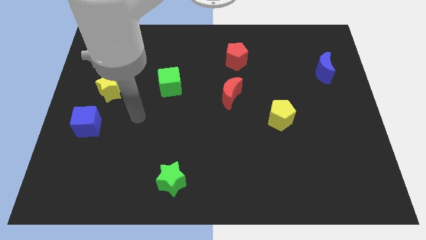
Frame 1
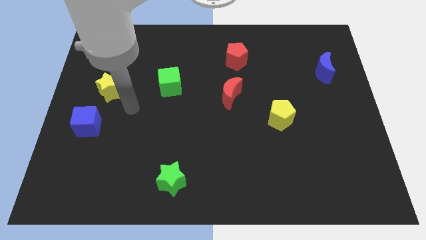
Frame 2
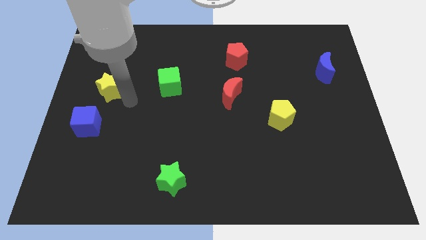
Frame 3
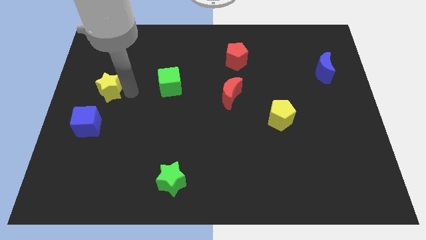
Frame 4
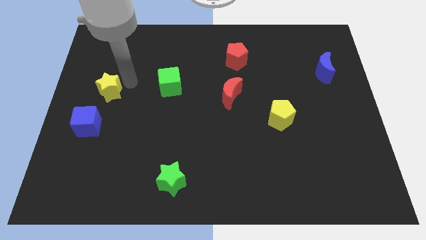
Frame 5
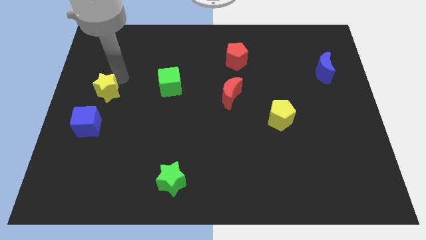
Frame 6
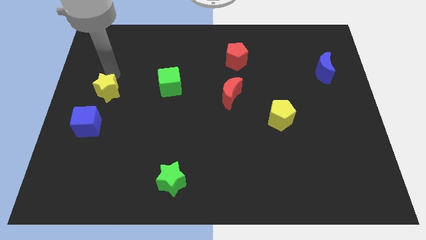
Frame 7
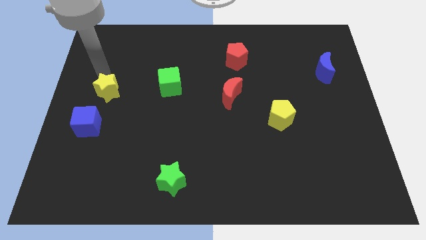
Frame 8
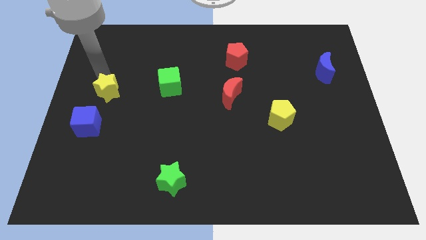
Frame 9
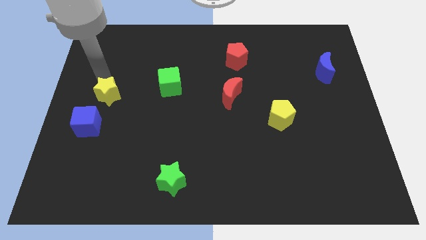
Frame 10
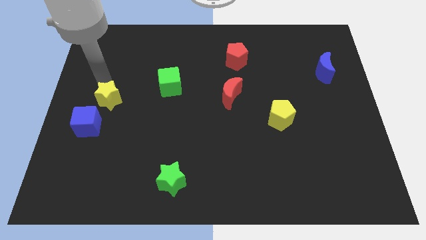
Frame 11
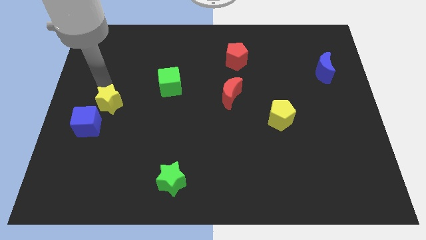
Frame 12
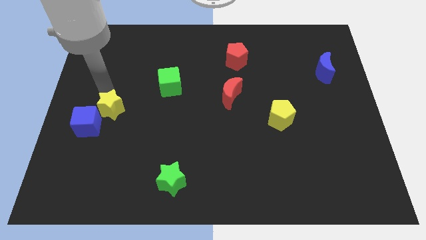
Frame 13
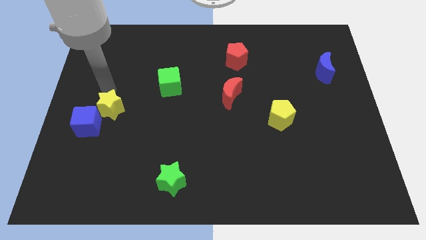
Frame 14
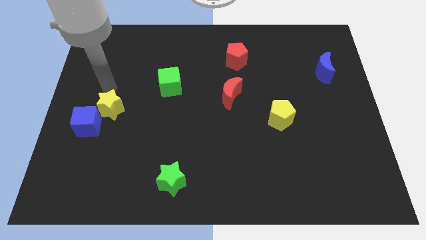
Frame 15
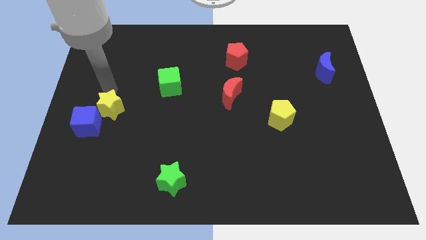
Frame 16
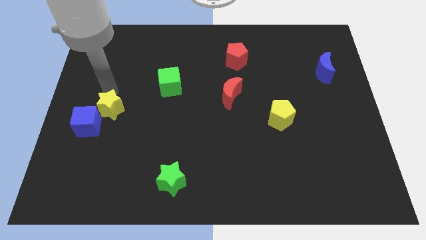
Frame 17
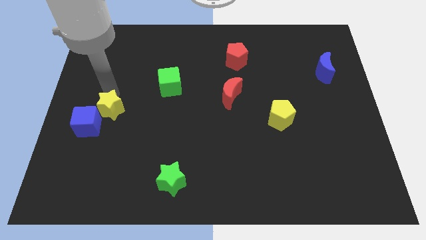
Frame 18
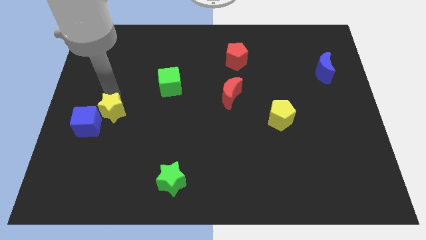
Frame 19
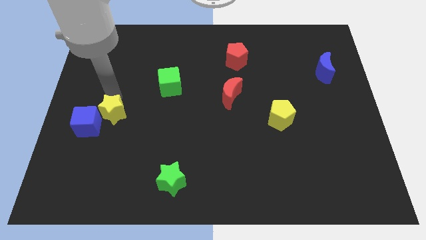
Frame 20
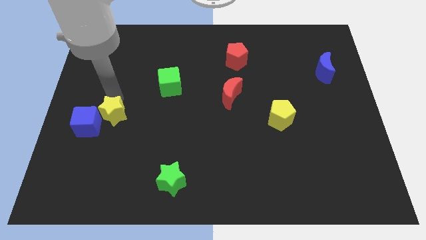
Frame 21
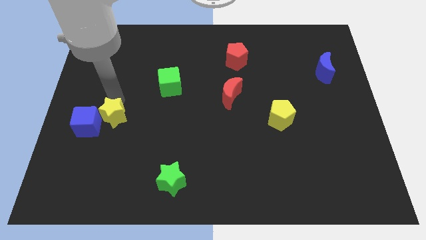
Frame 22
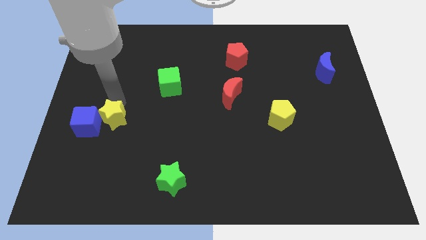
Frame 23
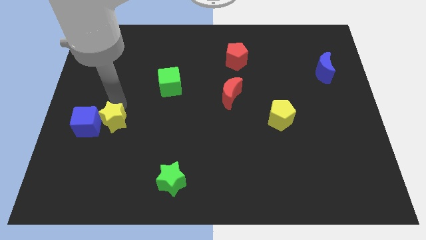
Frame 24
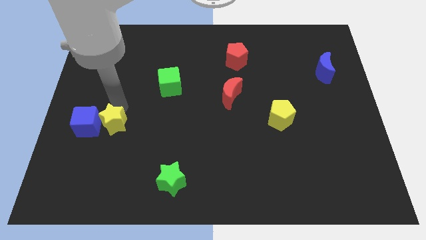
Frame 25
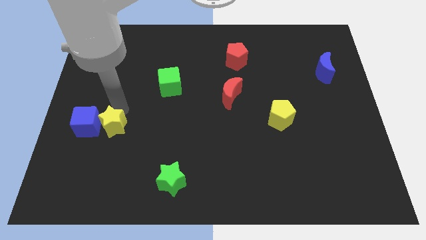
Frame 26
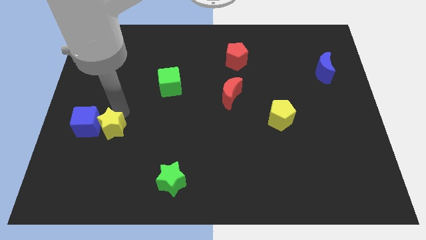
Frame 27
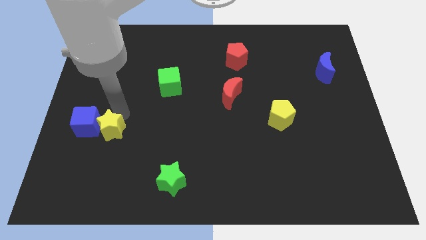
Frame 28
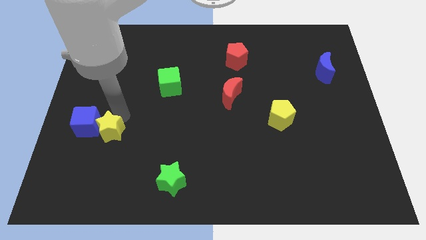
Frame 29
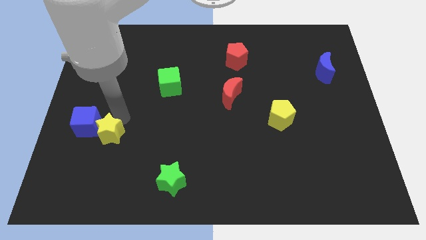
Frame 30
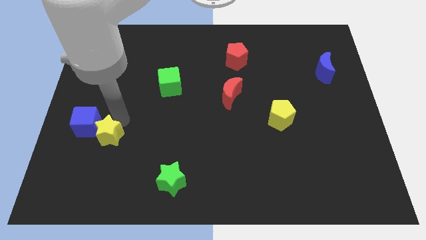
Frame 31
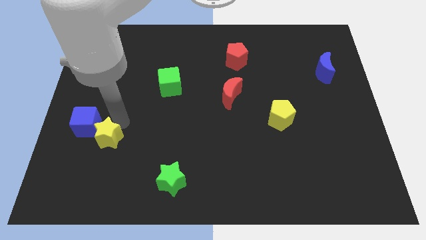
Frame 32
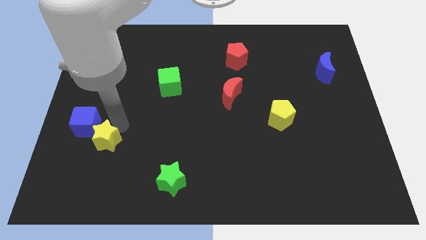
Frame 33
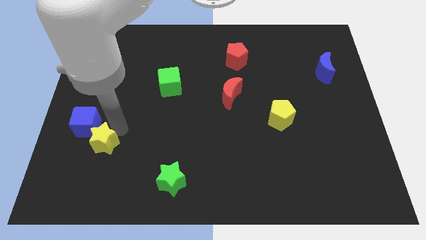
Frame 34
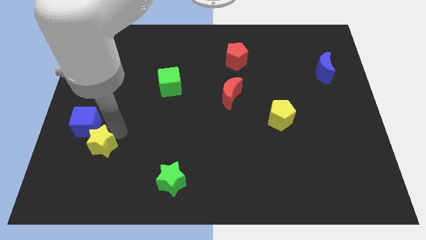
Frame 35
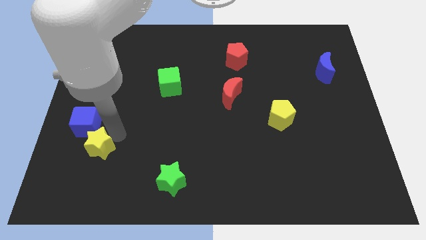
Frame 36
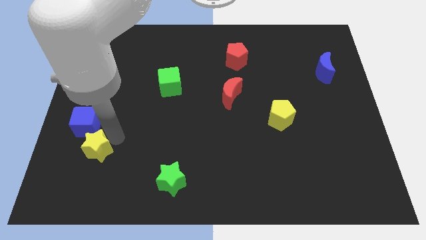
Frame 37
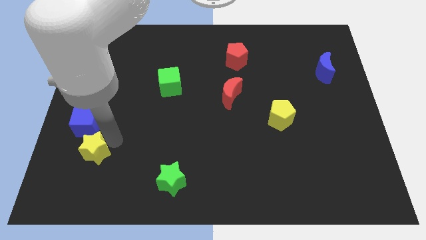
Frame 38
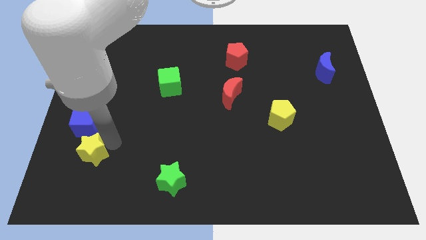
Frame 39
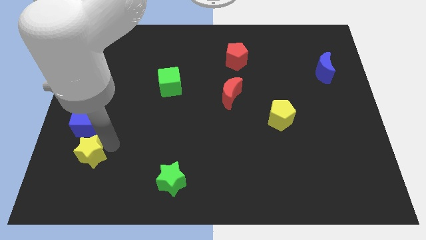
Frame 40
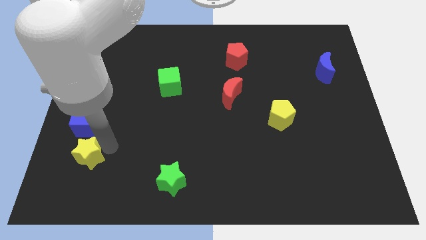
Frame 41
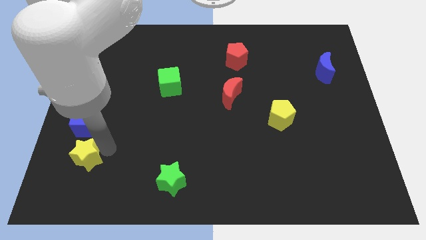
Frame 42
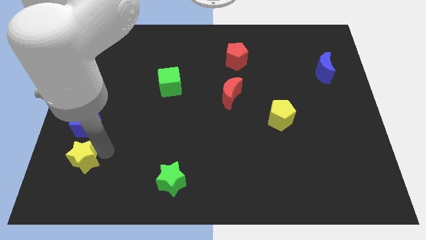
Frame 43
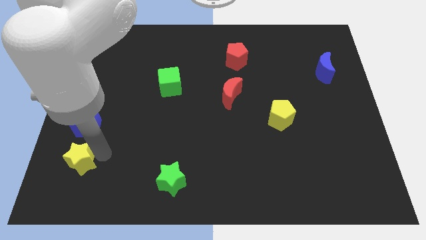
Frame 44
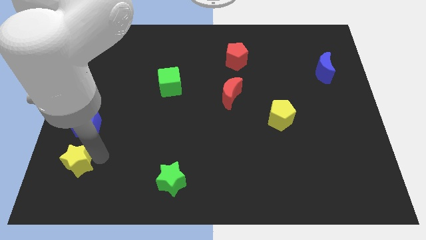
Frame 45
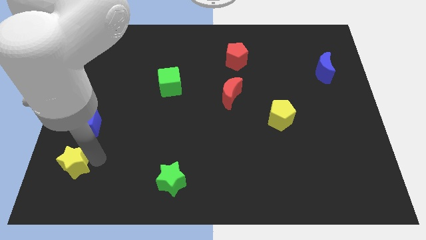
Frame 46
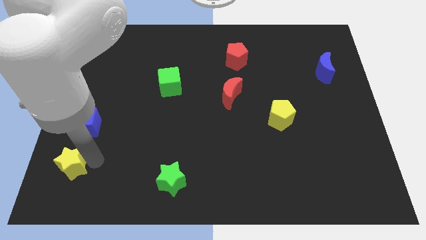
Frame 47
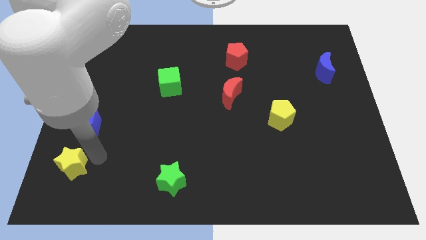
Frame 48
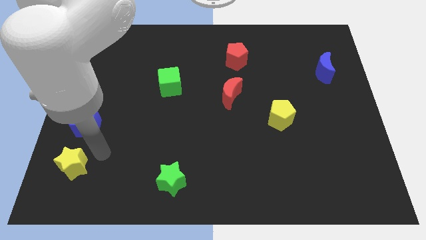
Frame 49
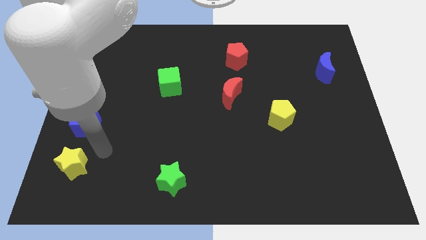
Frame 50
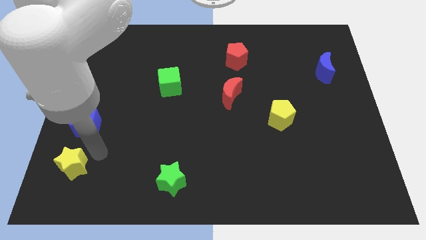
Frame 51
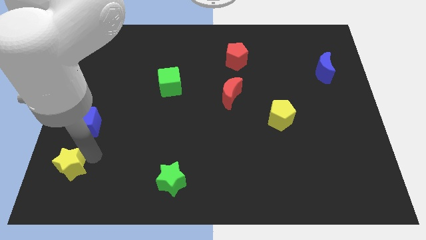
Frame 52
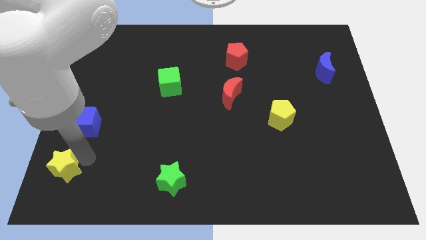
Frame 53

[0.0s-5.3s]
move the yellow star to the lower left corner

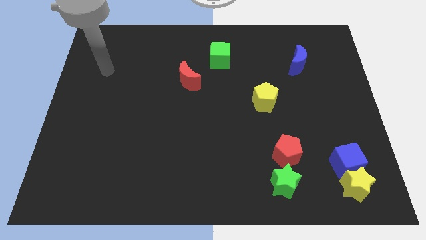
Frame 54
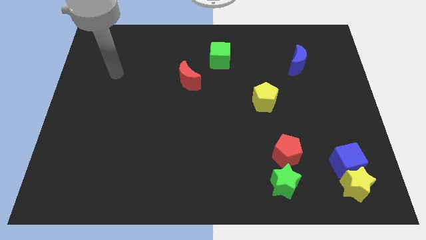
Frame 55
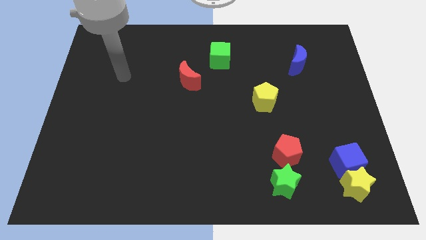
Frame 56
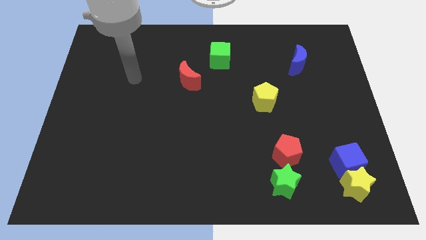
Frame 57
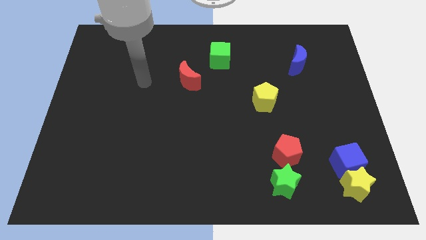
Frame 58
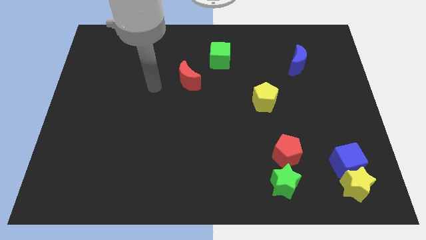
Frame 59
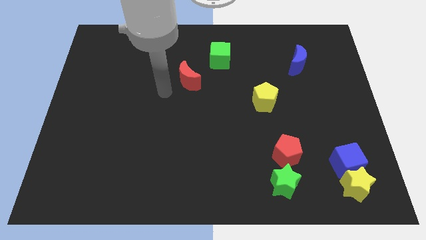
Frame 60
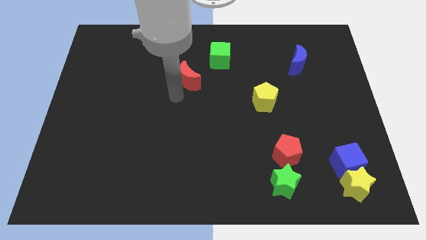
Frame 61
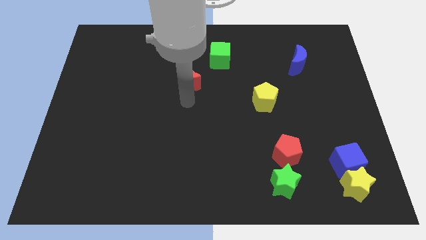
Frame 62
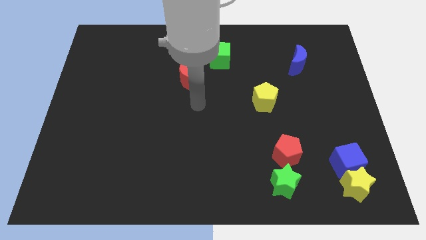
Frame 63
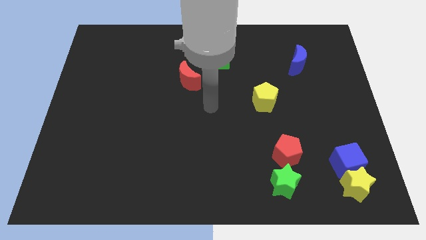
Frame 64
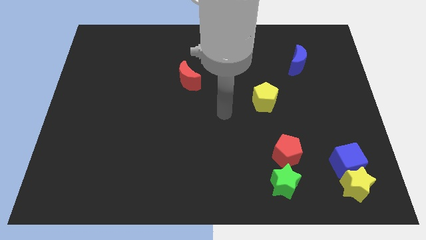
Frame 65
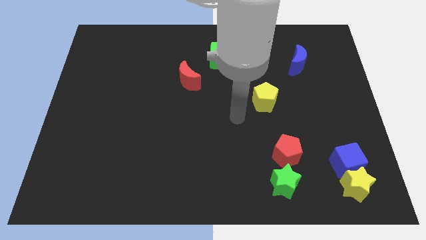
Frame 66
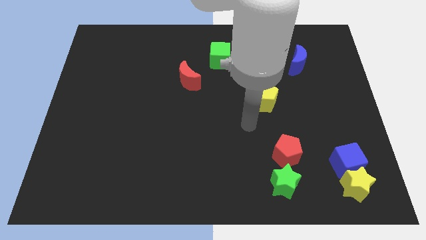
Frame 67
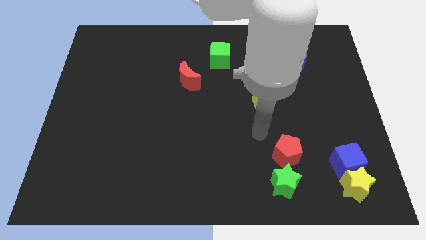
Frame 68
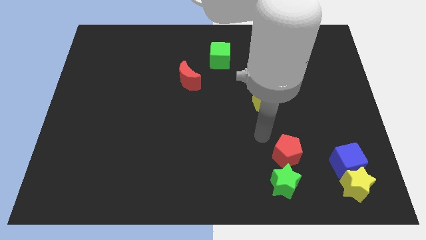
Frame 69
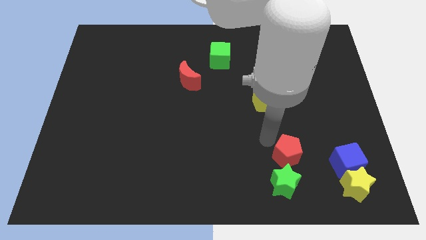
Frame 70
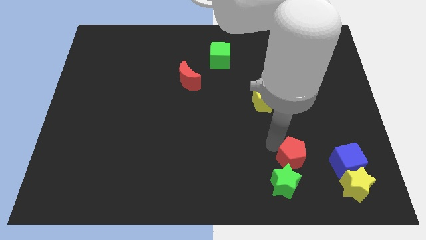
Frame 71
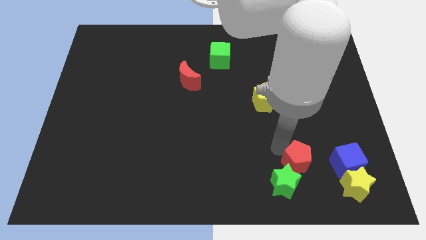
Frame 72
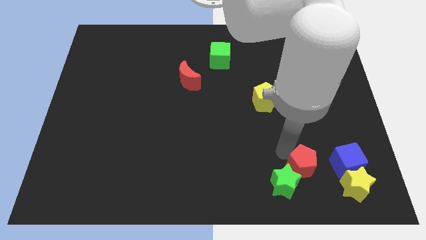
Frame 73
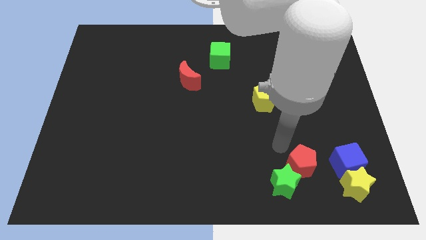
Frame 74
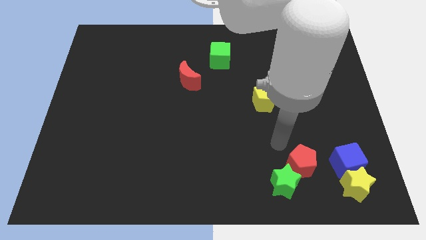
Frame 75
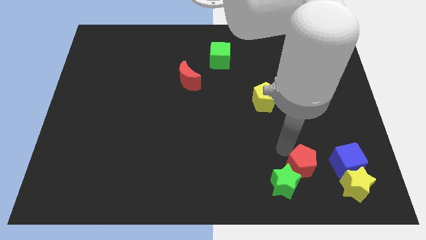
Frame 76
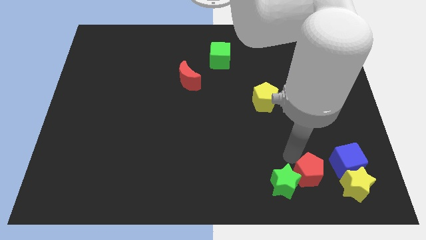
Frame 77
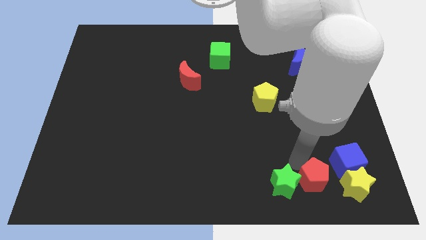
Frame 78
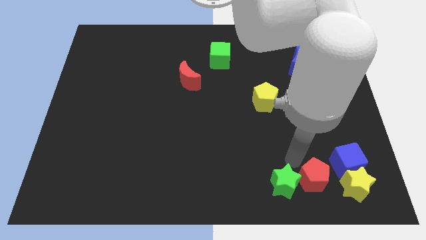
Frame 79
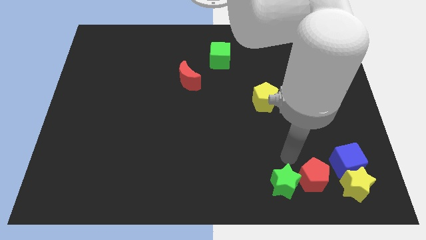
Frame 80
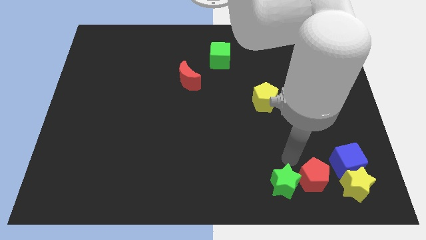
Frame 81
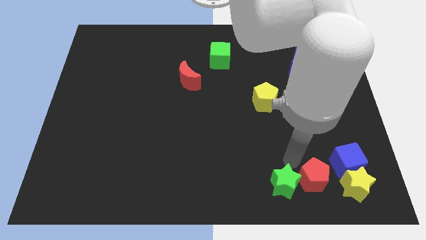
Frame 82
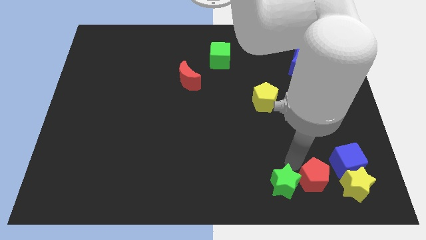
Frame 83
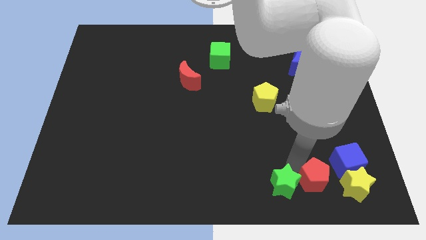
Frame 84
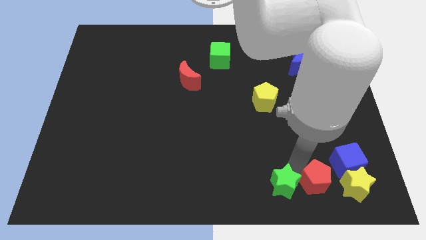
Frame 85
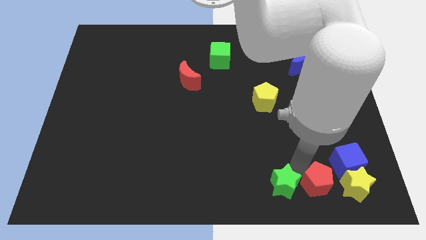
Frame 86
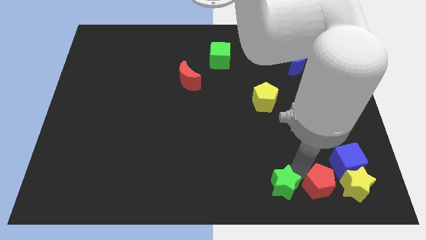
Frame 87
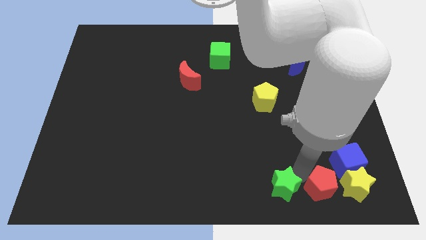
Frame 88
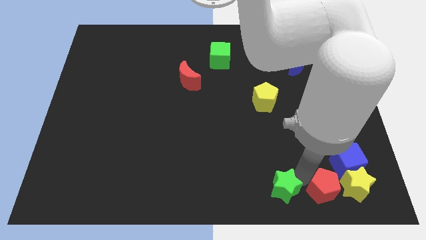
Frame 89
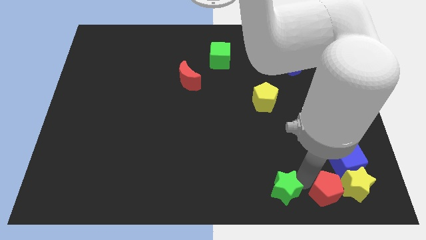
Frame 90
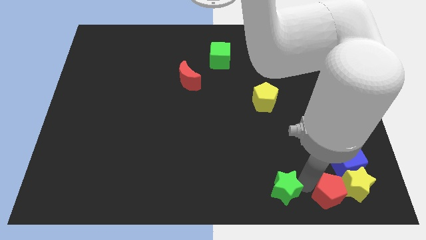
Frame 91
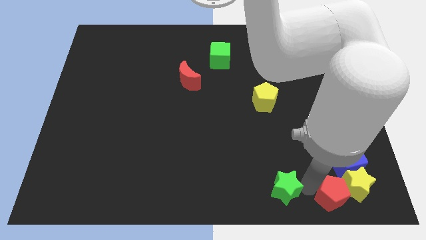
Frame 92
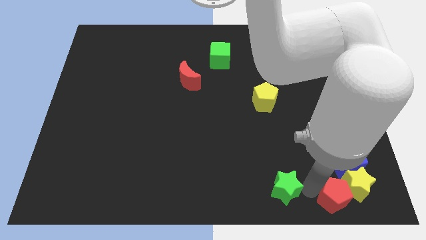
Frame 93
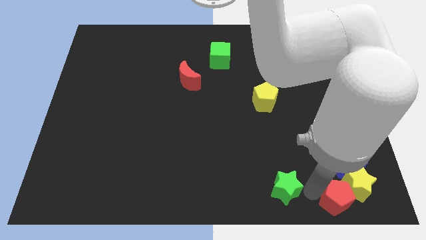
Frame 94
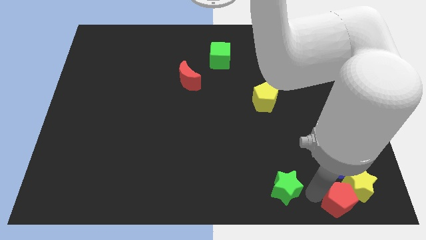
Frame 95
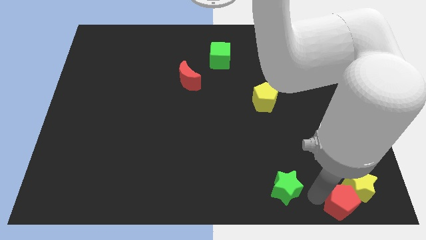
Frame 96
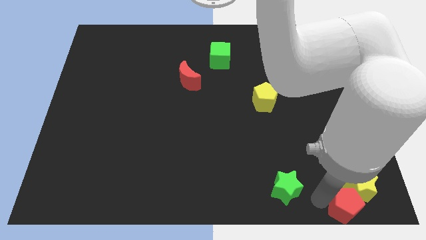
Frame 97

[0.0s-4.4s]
slide the red pentagon to the bottom right
